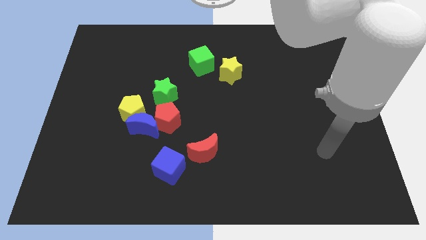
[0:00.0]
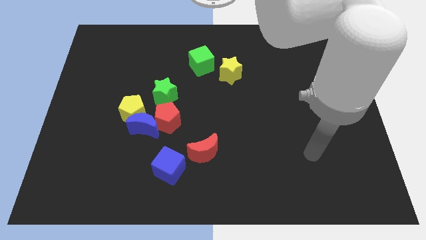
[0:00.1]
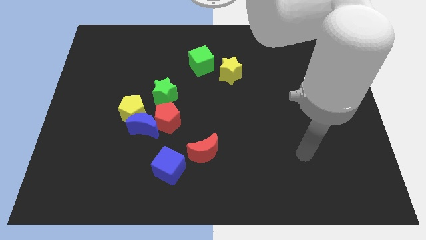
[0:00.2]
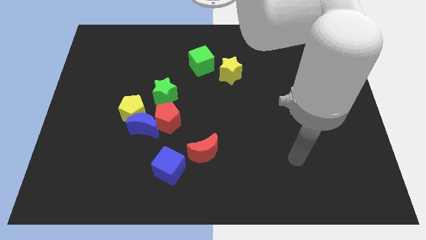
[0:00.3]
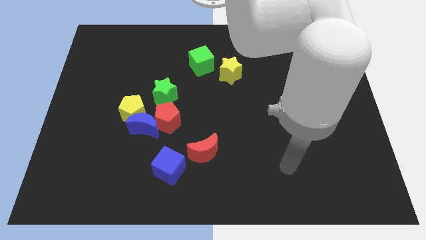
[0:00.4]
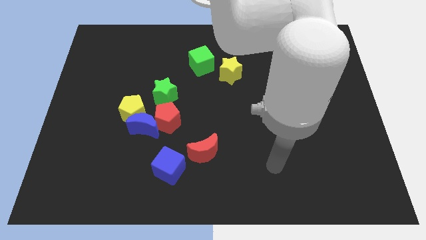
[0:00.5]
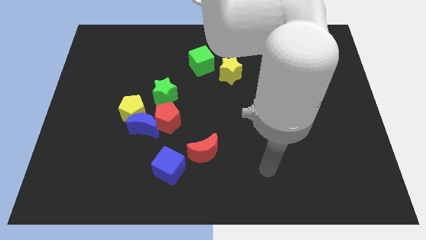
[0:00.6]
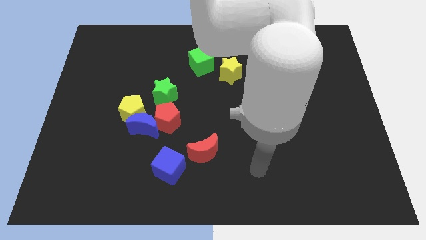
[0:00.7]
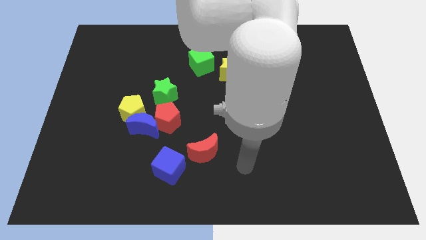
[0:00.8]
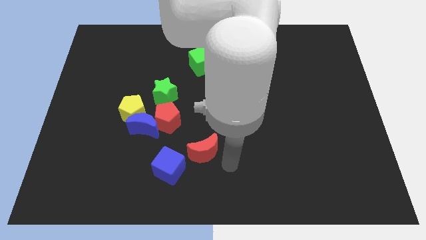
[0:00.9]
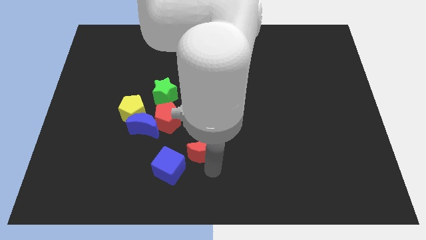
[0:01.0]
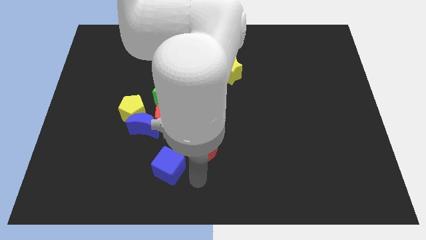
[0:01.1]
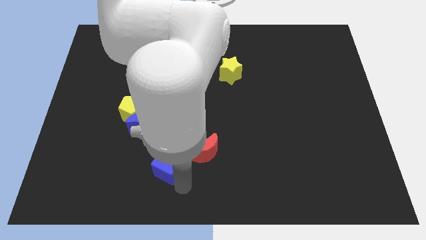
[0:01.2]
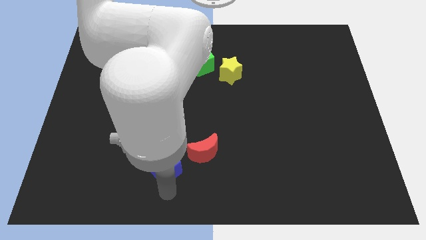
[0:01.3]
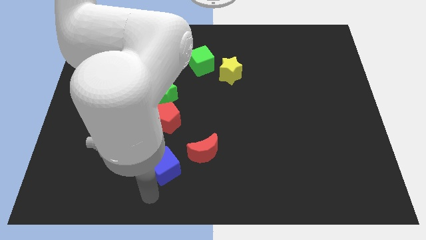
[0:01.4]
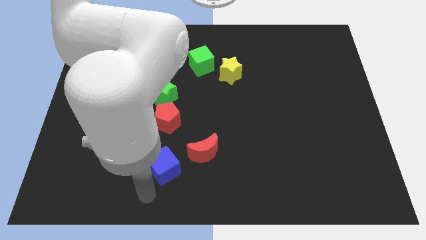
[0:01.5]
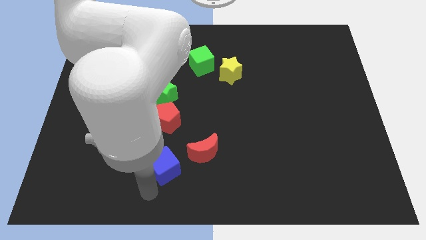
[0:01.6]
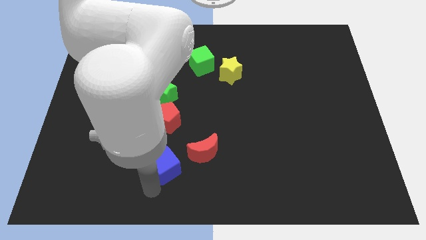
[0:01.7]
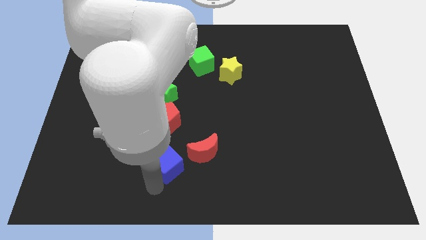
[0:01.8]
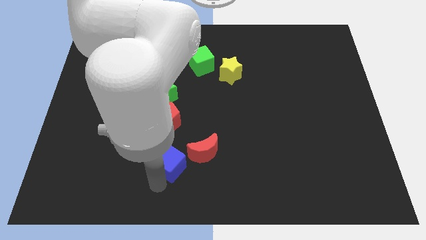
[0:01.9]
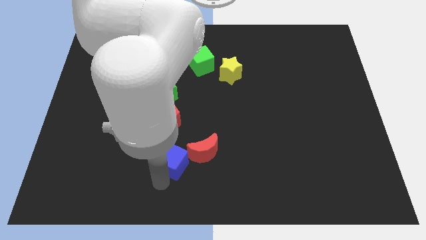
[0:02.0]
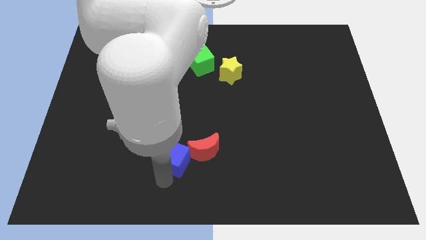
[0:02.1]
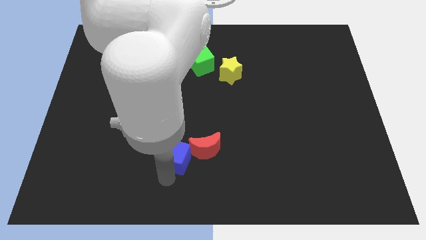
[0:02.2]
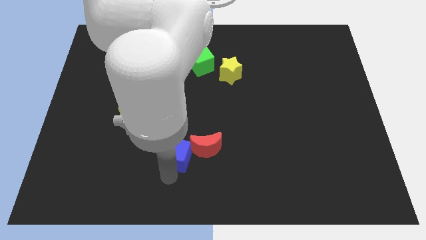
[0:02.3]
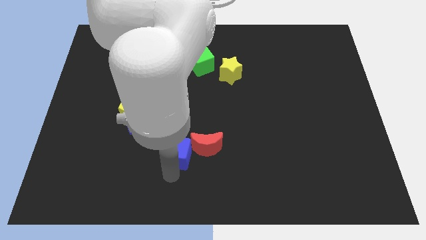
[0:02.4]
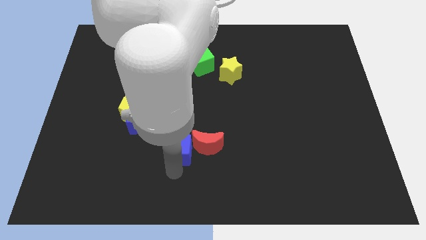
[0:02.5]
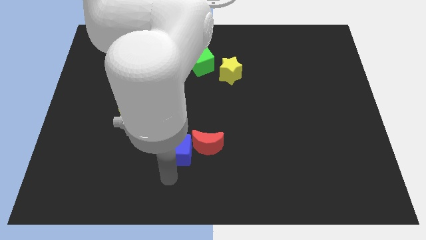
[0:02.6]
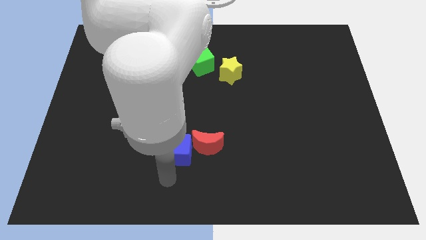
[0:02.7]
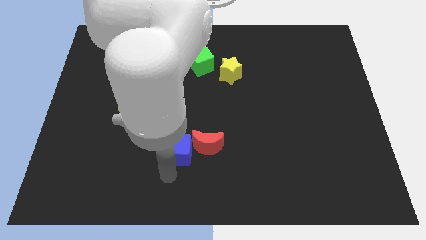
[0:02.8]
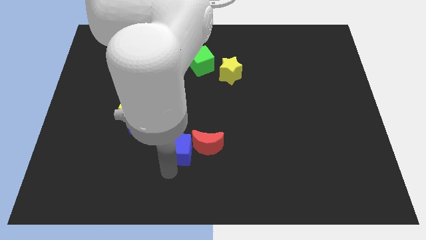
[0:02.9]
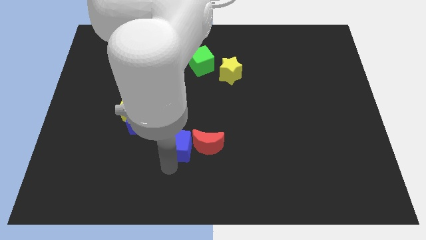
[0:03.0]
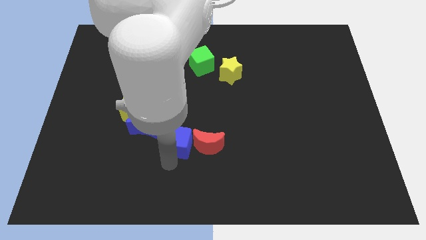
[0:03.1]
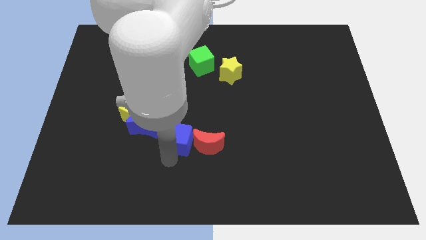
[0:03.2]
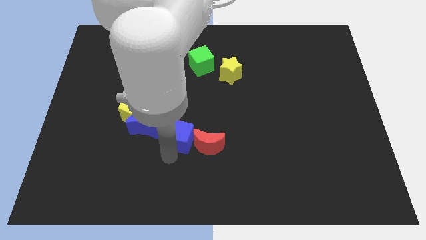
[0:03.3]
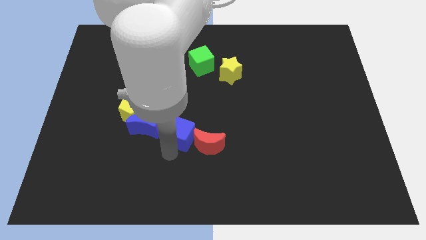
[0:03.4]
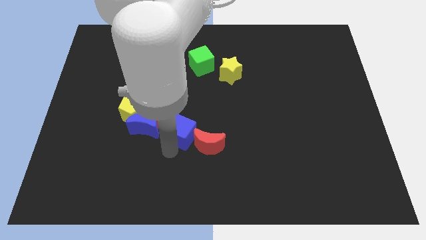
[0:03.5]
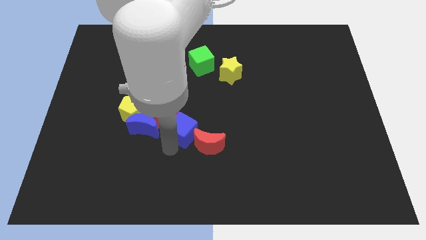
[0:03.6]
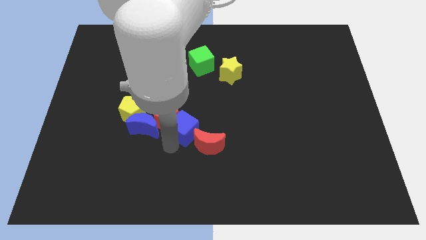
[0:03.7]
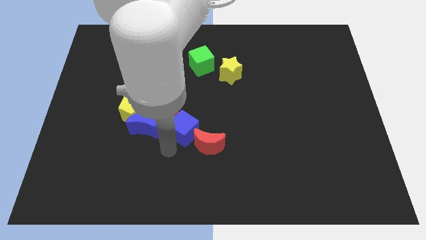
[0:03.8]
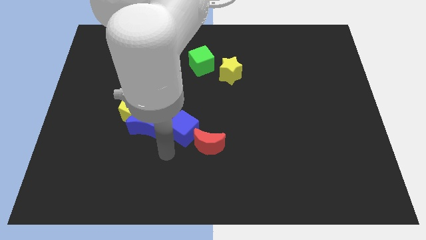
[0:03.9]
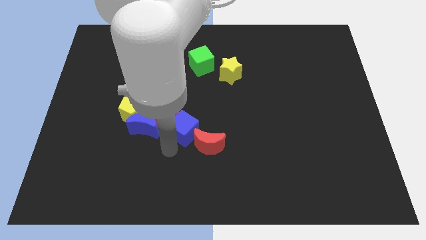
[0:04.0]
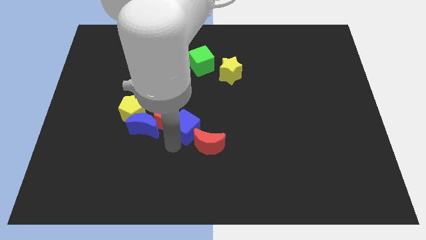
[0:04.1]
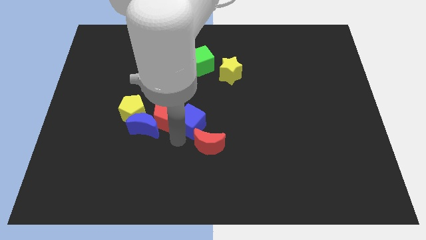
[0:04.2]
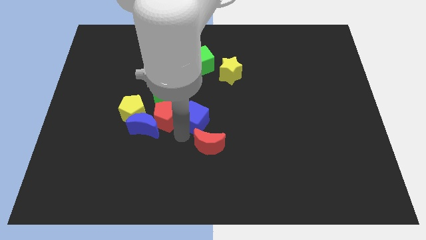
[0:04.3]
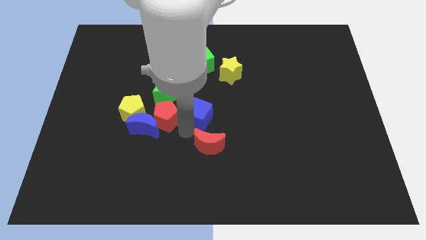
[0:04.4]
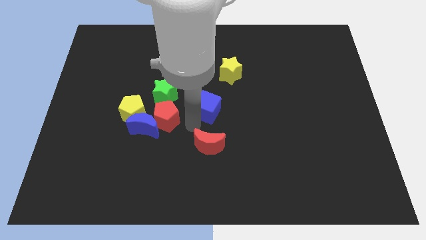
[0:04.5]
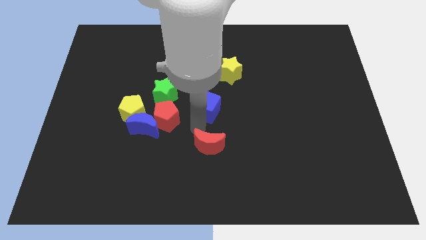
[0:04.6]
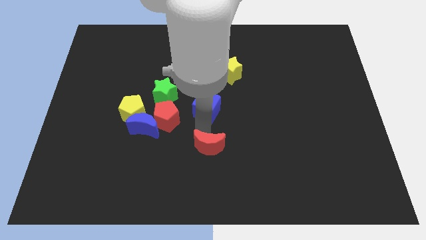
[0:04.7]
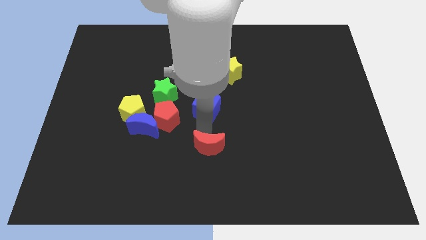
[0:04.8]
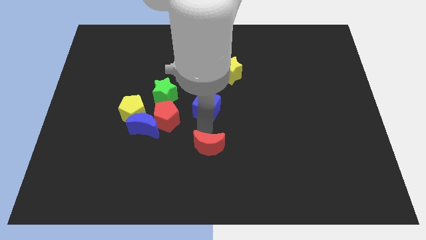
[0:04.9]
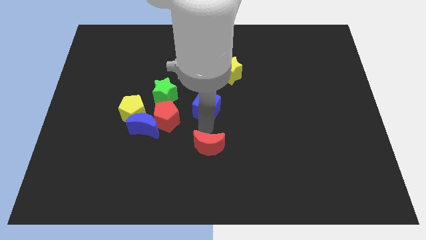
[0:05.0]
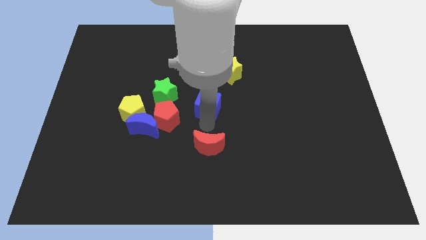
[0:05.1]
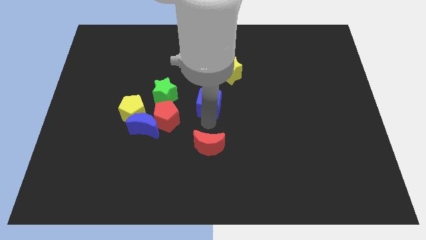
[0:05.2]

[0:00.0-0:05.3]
move the blue cube to the bottom left side of the yellow star

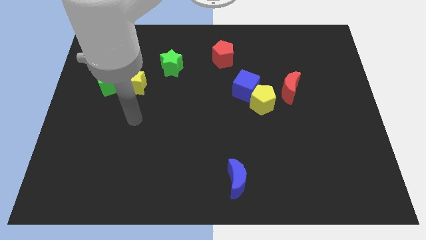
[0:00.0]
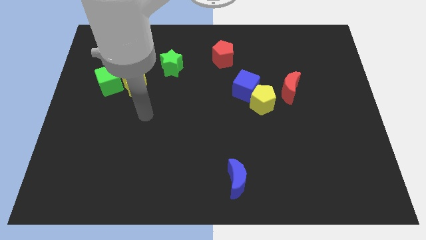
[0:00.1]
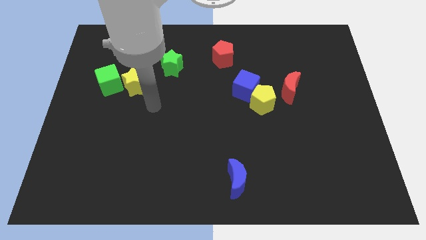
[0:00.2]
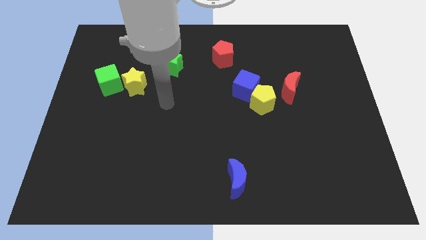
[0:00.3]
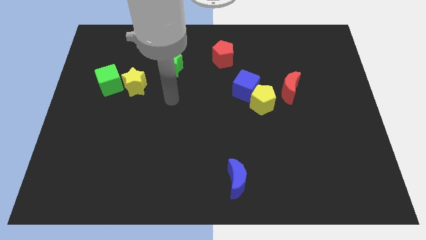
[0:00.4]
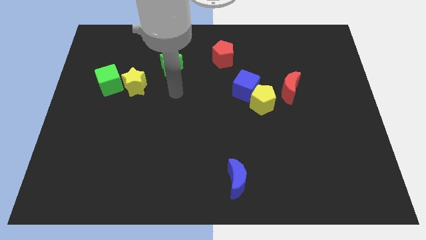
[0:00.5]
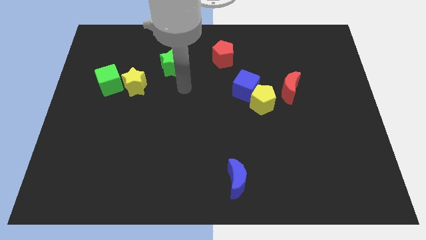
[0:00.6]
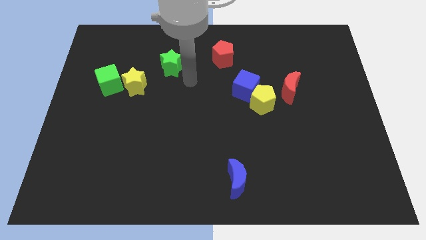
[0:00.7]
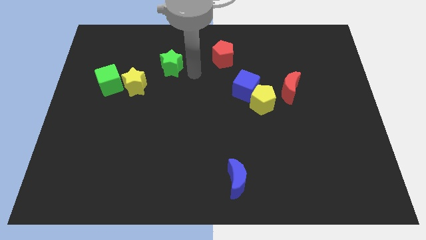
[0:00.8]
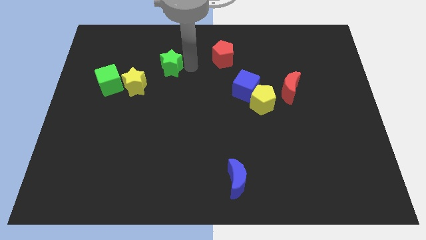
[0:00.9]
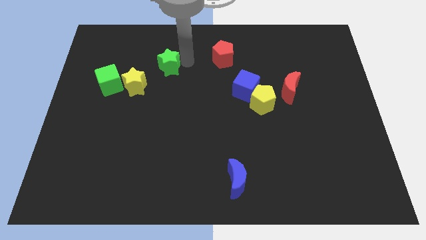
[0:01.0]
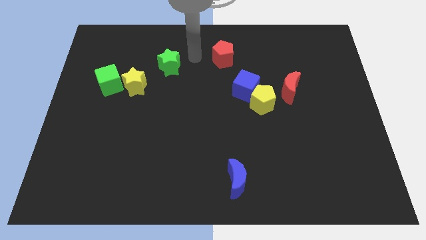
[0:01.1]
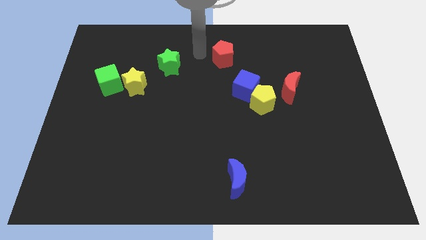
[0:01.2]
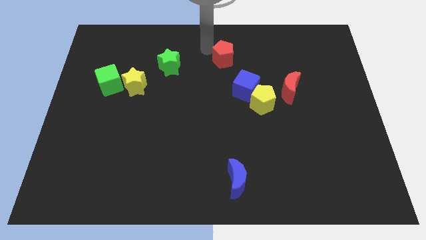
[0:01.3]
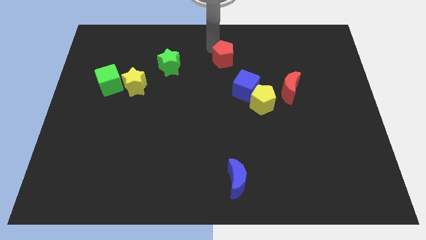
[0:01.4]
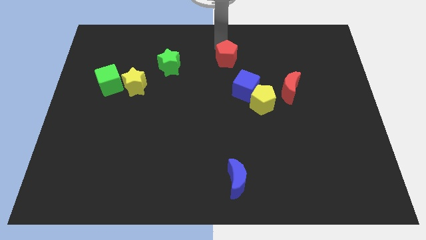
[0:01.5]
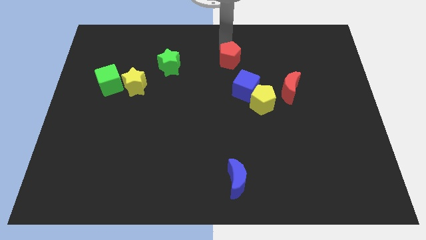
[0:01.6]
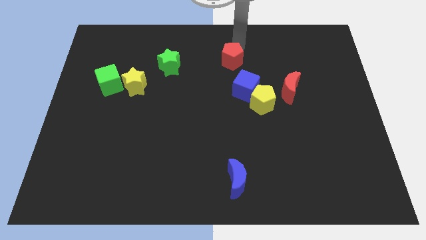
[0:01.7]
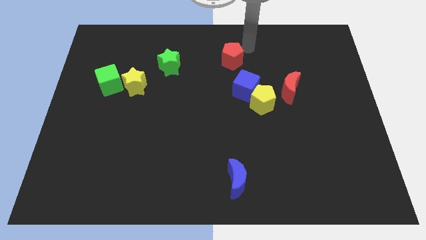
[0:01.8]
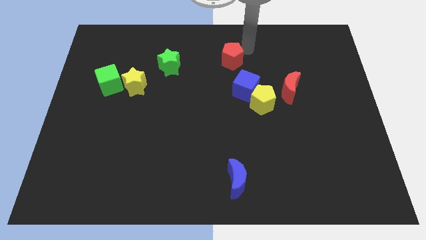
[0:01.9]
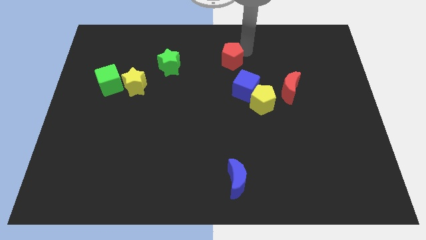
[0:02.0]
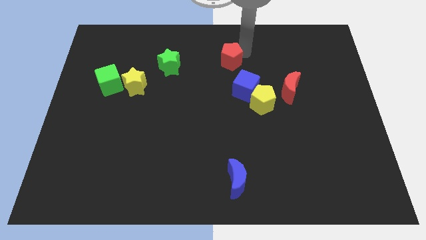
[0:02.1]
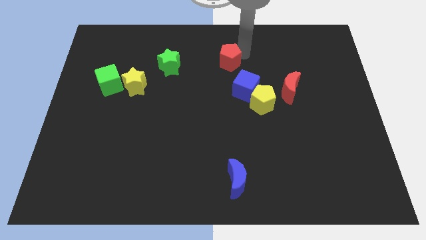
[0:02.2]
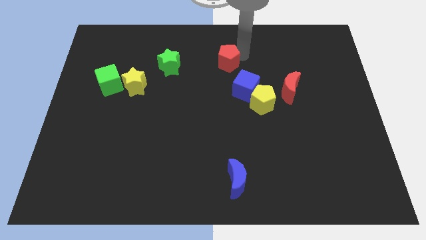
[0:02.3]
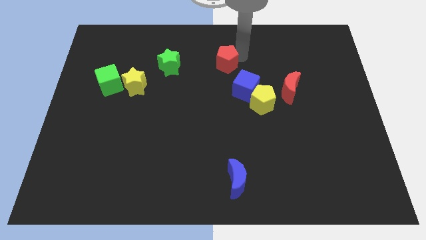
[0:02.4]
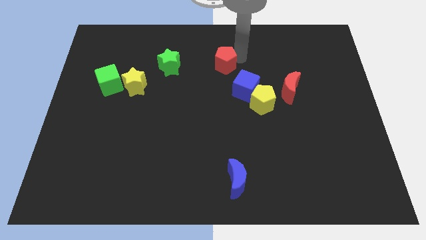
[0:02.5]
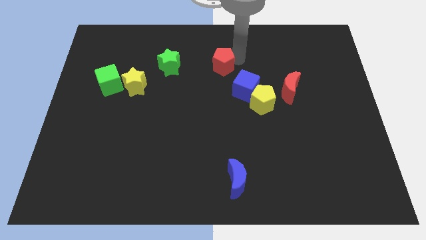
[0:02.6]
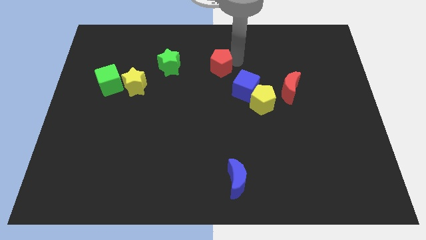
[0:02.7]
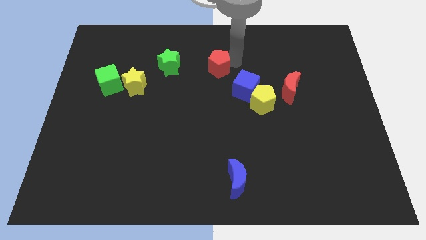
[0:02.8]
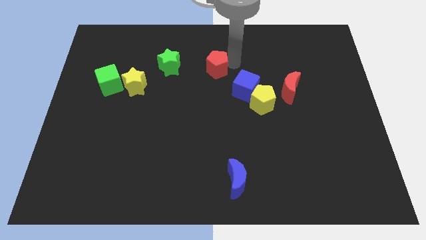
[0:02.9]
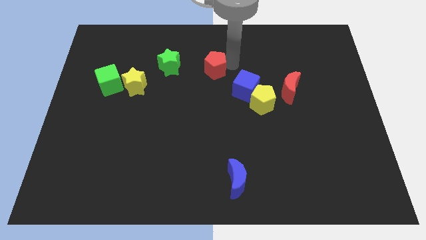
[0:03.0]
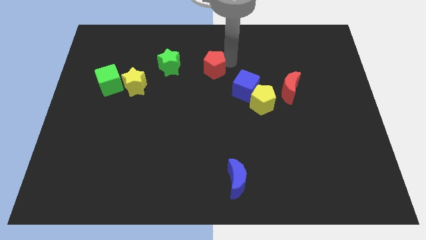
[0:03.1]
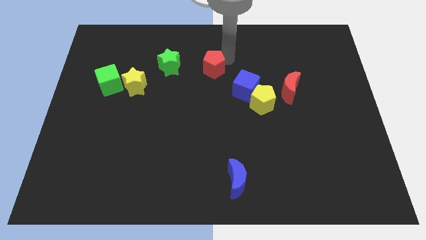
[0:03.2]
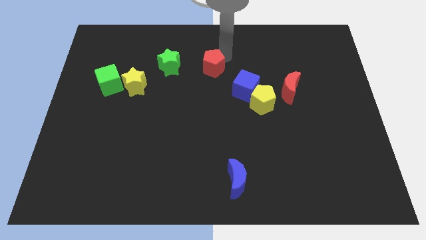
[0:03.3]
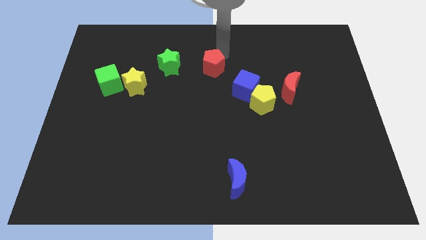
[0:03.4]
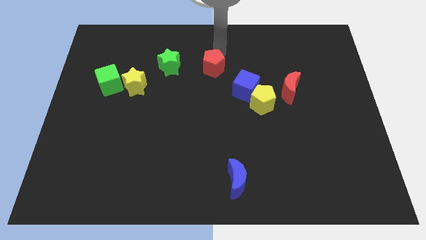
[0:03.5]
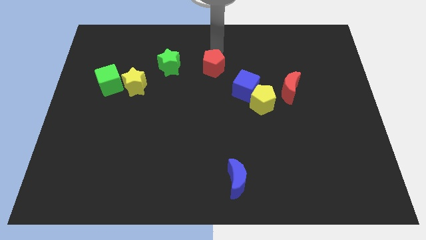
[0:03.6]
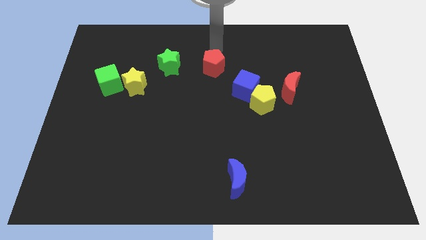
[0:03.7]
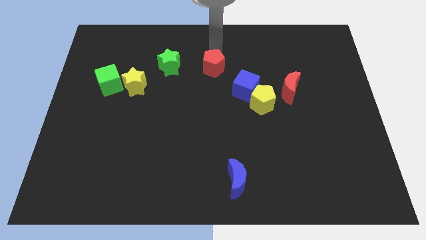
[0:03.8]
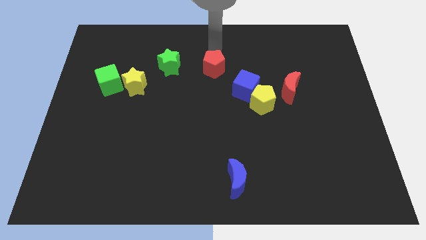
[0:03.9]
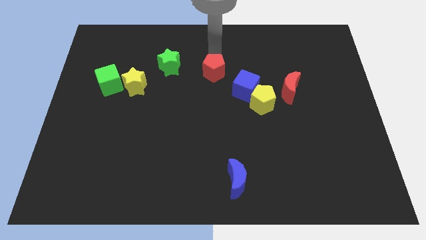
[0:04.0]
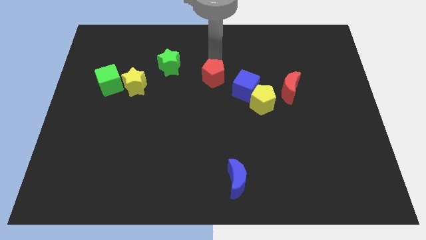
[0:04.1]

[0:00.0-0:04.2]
put the red pentagon just left of the blue cube
